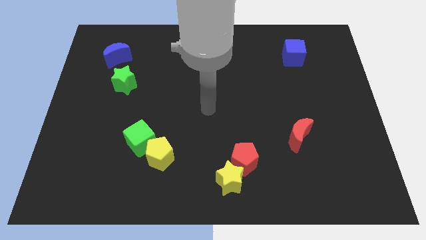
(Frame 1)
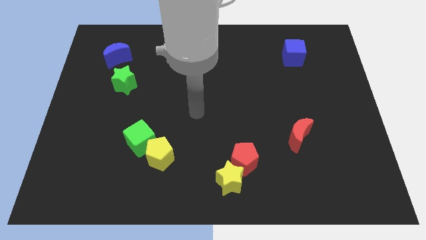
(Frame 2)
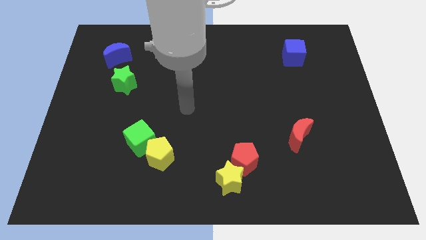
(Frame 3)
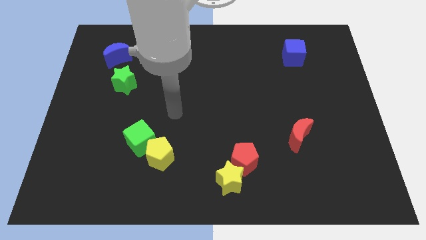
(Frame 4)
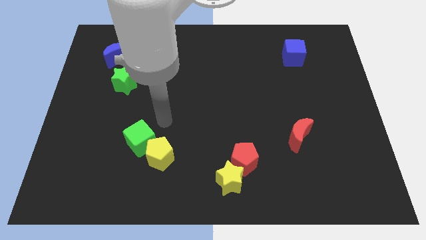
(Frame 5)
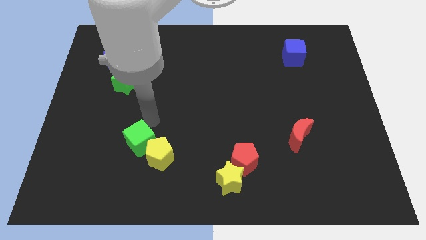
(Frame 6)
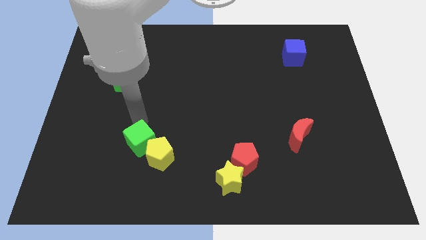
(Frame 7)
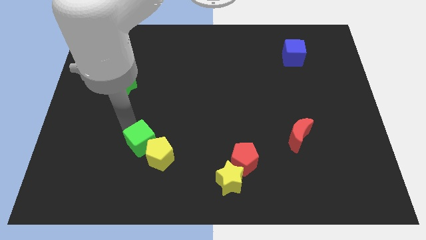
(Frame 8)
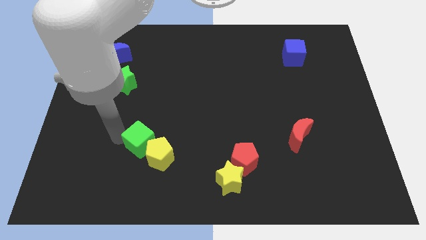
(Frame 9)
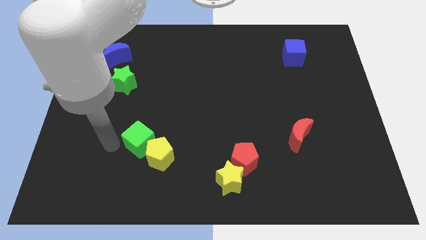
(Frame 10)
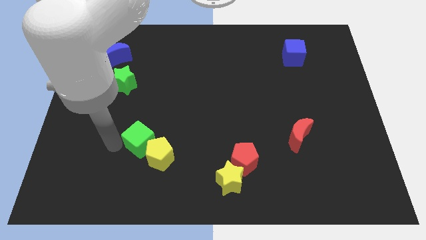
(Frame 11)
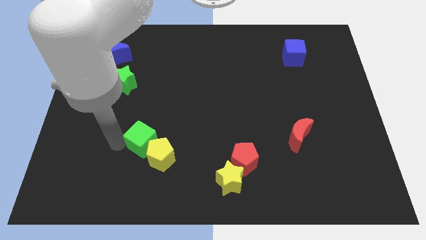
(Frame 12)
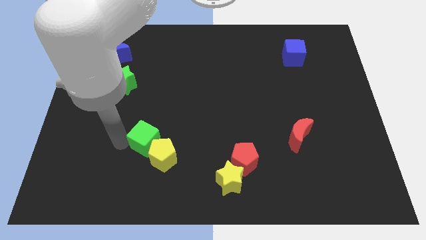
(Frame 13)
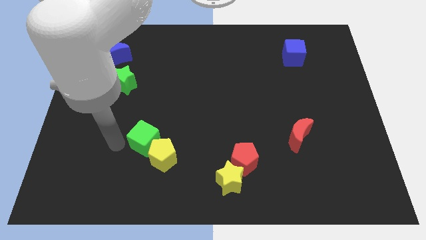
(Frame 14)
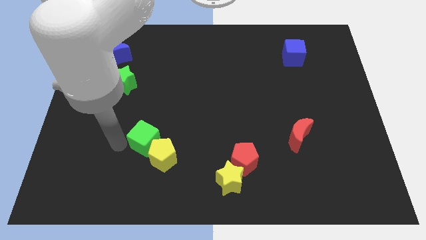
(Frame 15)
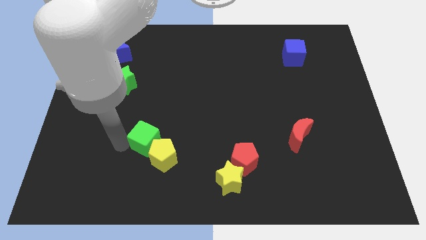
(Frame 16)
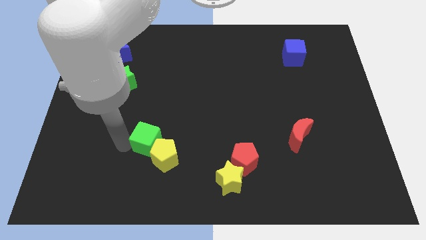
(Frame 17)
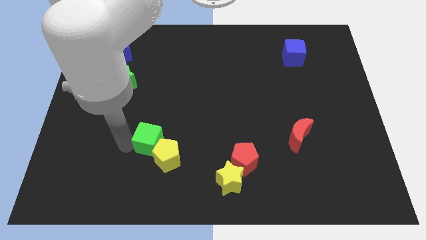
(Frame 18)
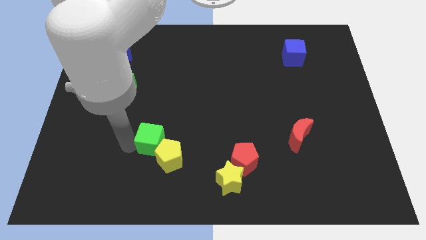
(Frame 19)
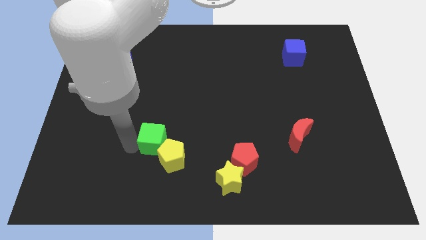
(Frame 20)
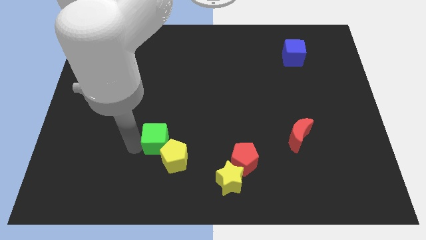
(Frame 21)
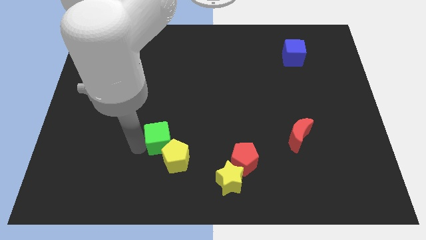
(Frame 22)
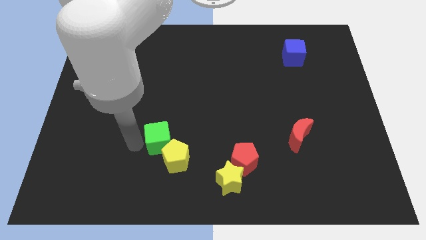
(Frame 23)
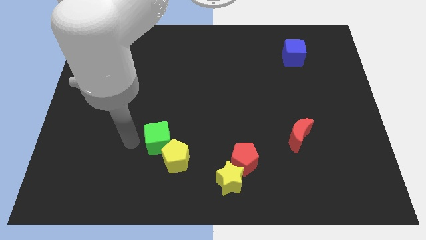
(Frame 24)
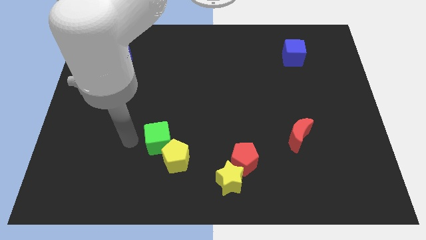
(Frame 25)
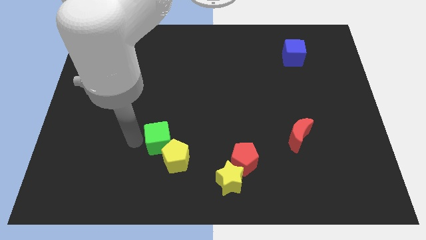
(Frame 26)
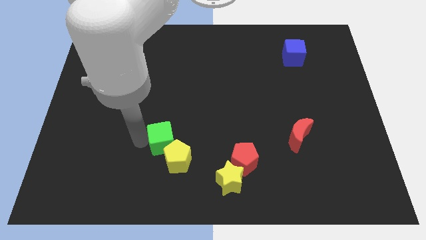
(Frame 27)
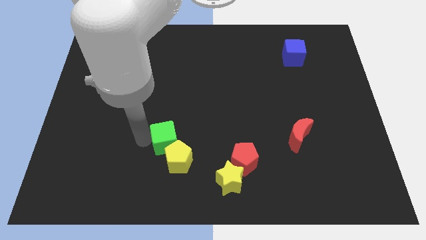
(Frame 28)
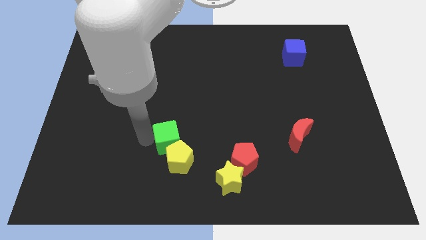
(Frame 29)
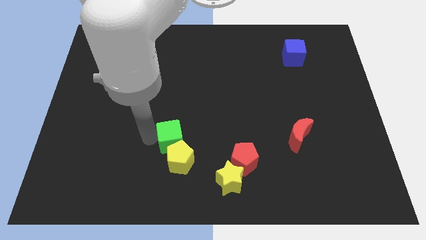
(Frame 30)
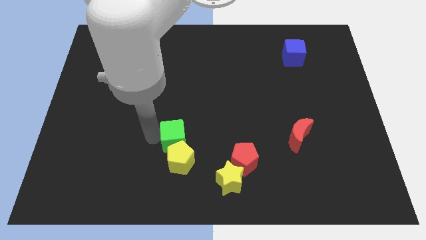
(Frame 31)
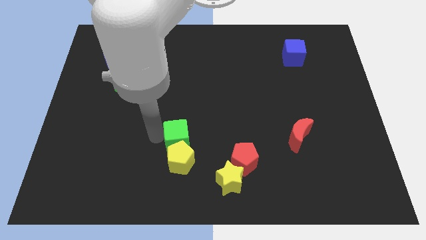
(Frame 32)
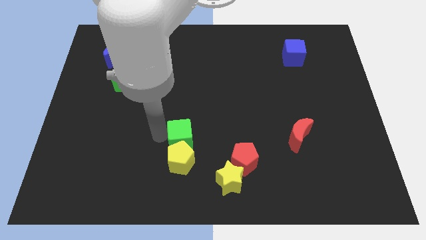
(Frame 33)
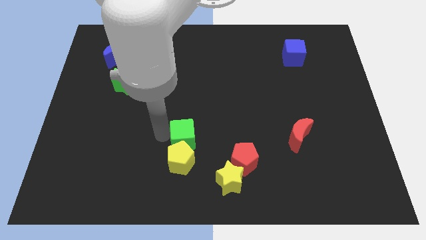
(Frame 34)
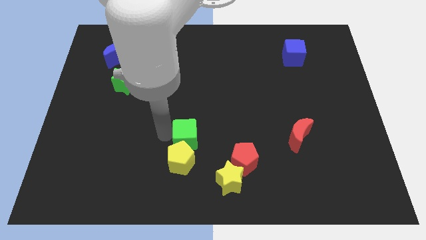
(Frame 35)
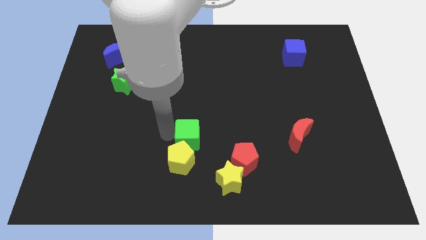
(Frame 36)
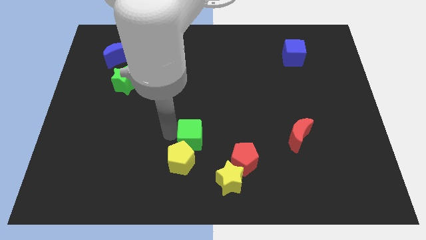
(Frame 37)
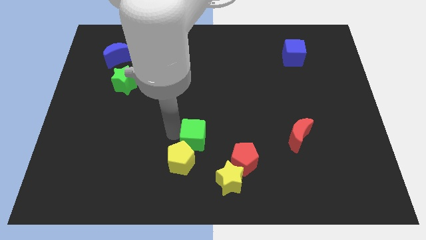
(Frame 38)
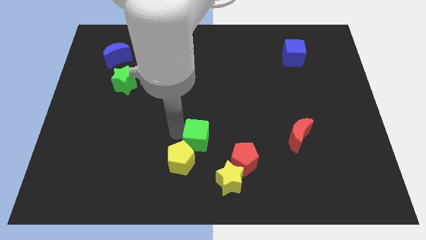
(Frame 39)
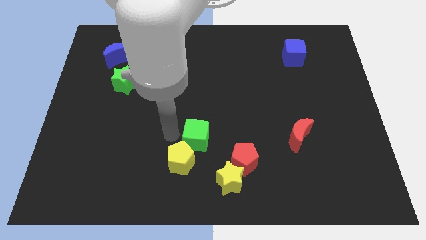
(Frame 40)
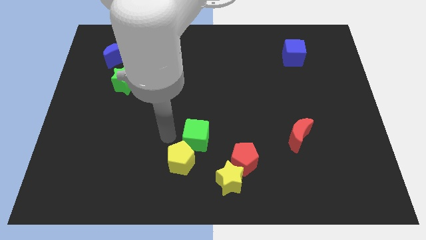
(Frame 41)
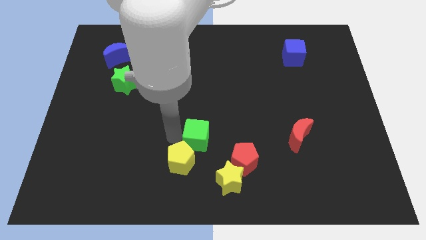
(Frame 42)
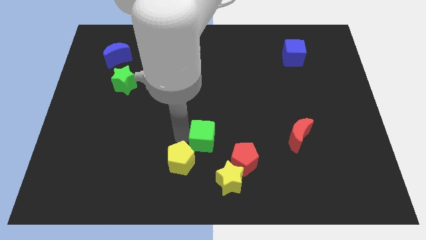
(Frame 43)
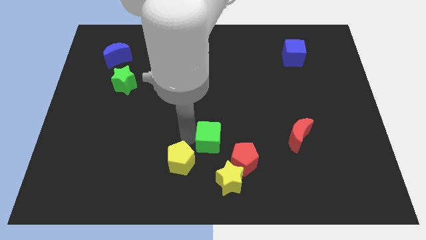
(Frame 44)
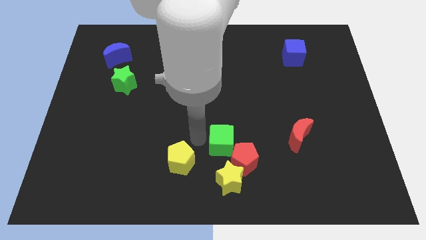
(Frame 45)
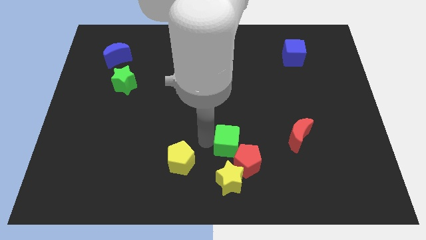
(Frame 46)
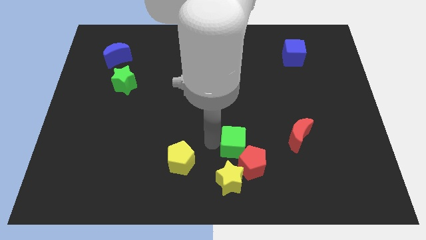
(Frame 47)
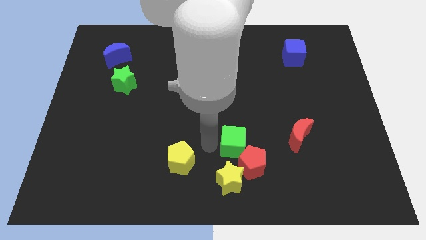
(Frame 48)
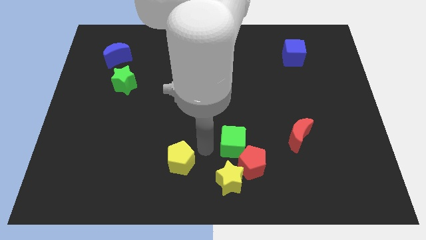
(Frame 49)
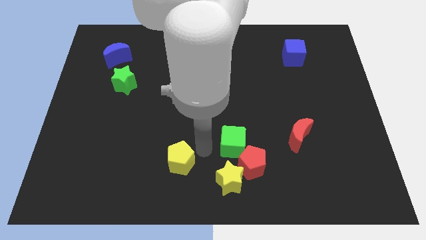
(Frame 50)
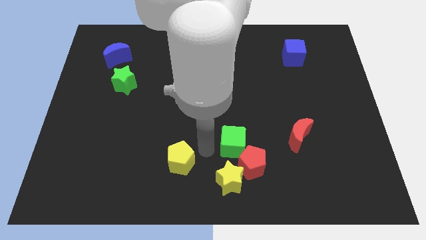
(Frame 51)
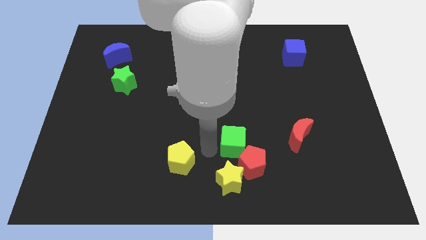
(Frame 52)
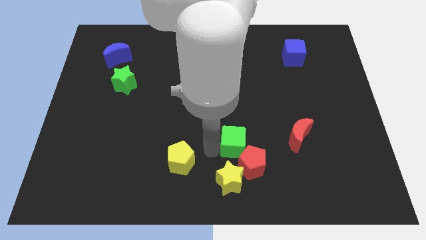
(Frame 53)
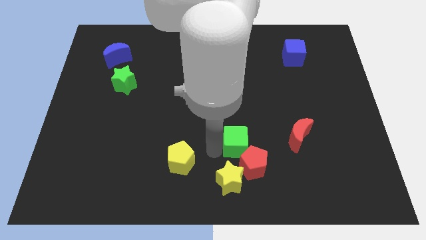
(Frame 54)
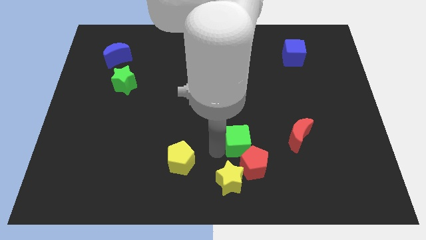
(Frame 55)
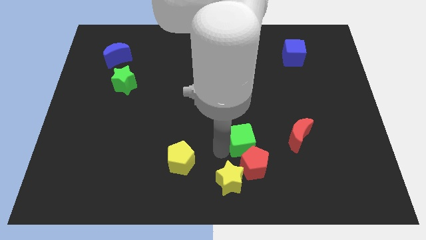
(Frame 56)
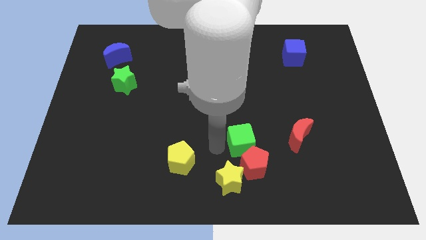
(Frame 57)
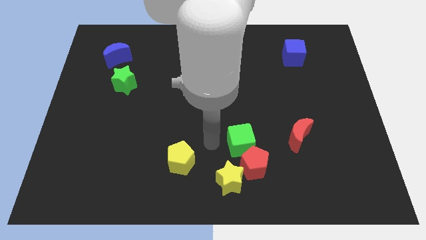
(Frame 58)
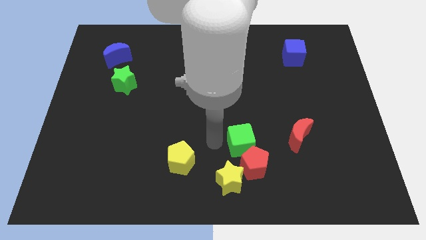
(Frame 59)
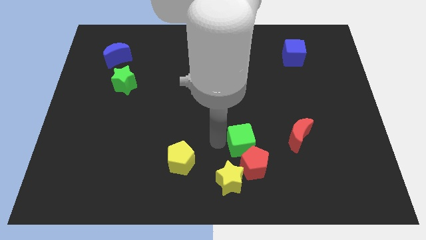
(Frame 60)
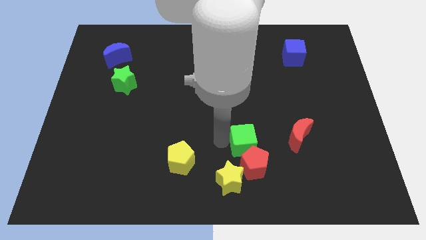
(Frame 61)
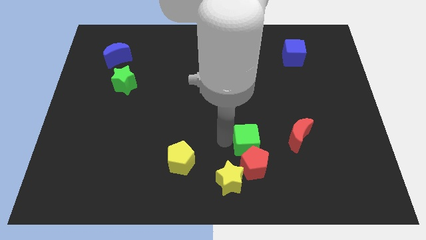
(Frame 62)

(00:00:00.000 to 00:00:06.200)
push the green cube to the top right of the red pentagon

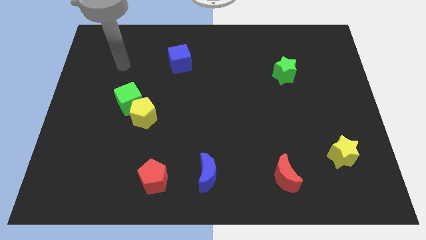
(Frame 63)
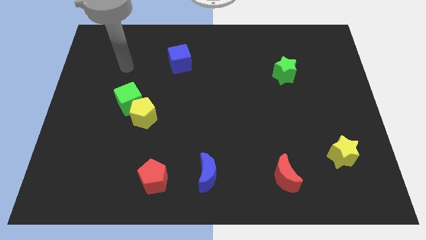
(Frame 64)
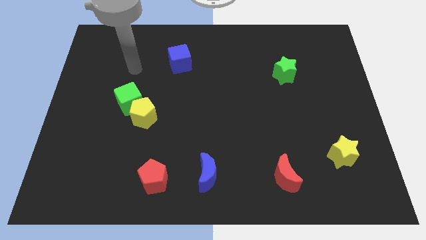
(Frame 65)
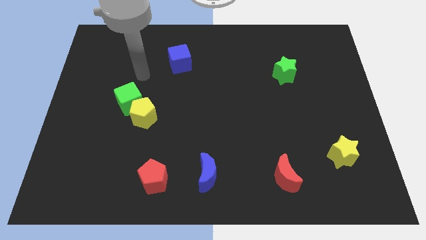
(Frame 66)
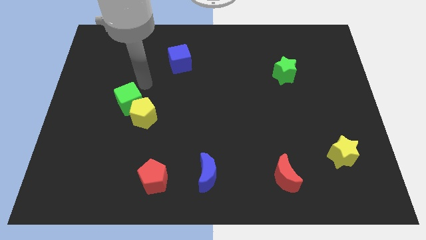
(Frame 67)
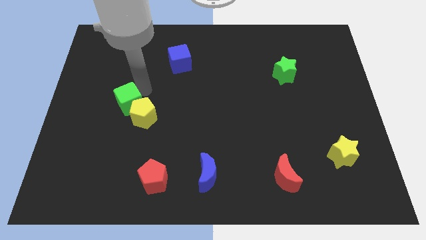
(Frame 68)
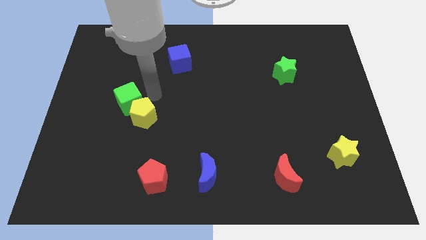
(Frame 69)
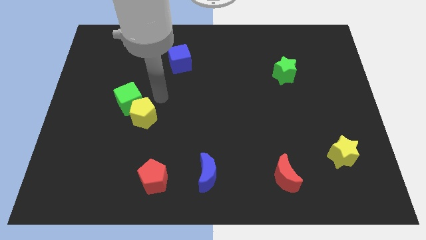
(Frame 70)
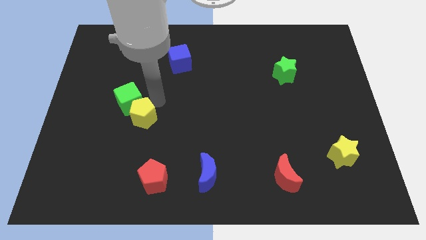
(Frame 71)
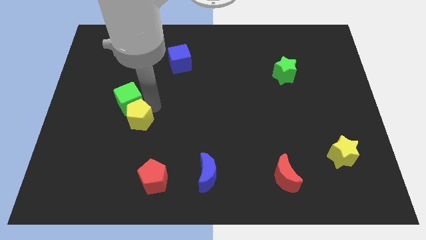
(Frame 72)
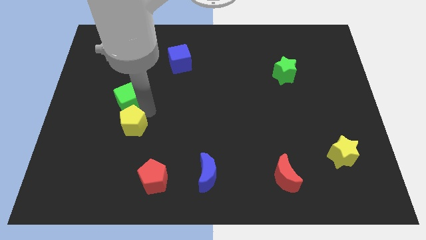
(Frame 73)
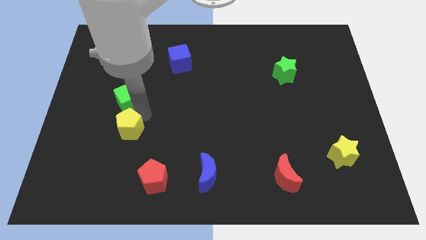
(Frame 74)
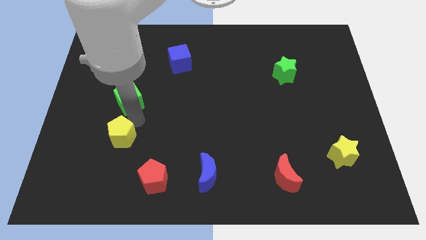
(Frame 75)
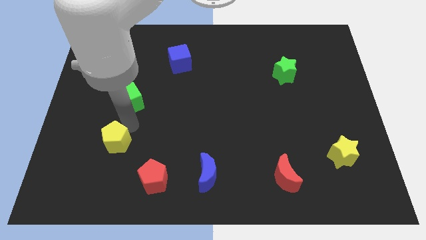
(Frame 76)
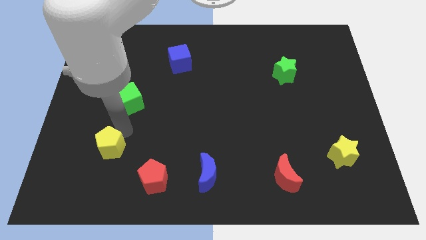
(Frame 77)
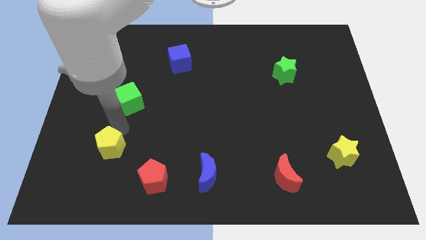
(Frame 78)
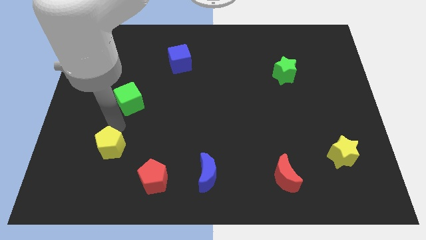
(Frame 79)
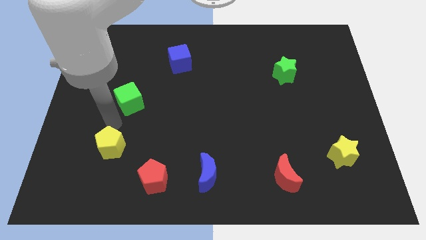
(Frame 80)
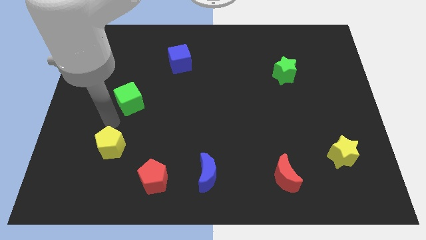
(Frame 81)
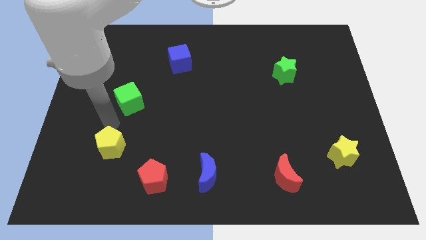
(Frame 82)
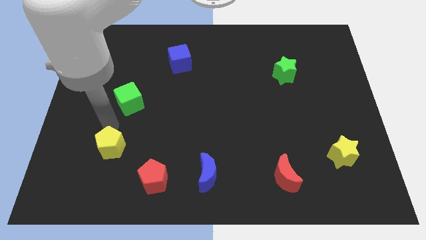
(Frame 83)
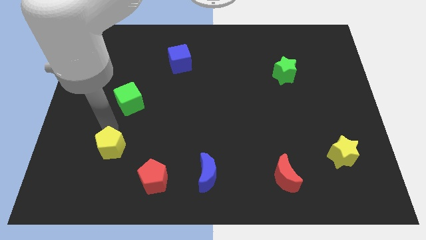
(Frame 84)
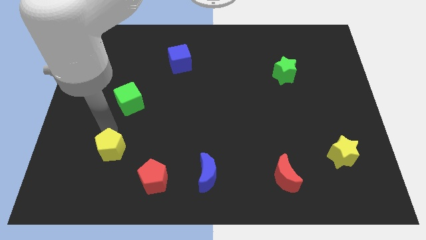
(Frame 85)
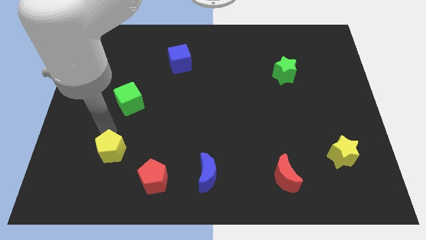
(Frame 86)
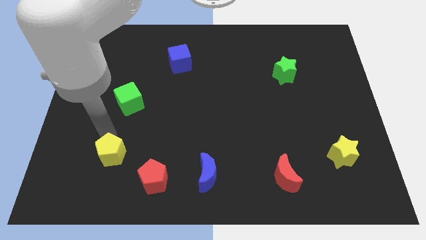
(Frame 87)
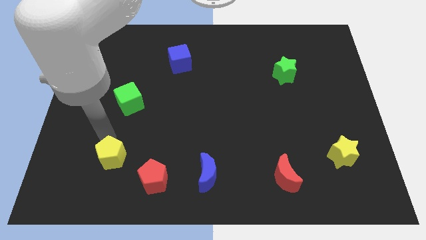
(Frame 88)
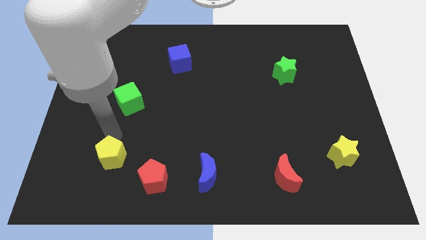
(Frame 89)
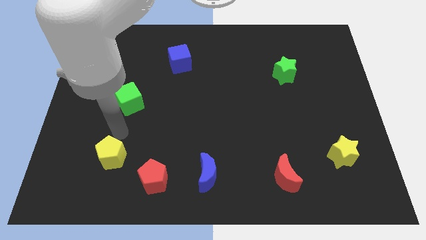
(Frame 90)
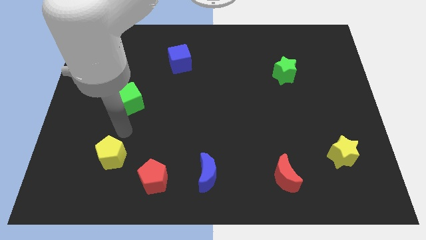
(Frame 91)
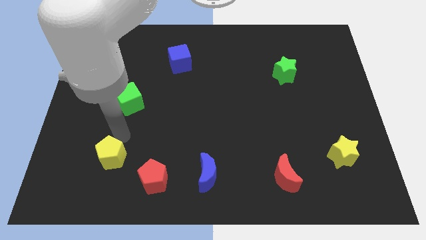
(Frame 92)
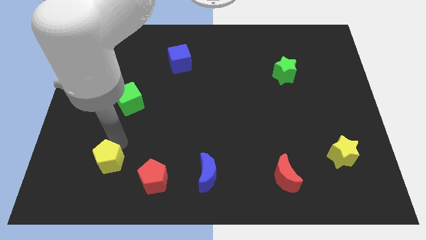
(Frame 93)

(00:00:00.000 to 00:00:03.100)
push the yellow pentagon to the left side of the red pentagon
